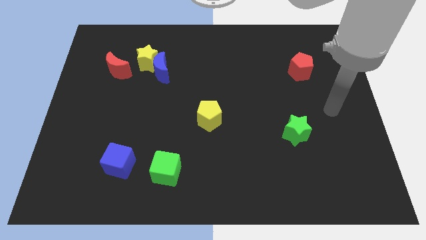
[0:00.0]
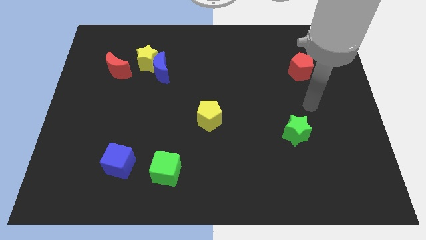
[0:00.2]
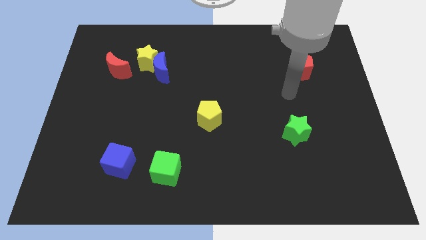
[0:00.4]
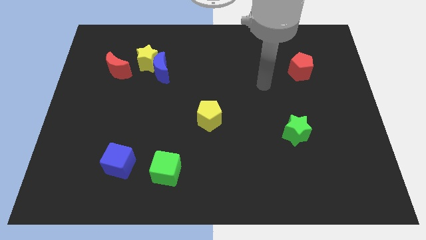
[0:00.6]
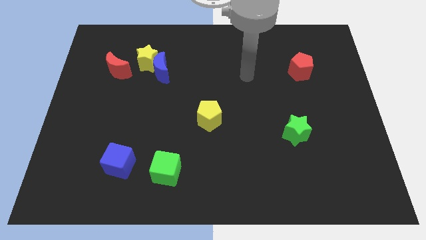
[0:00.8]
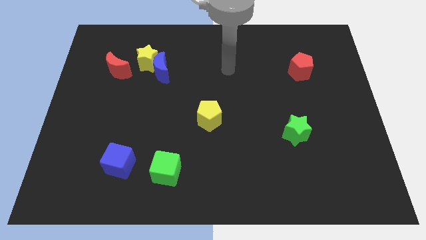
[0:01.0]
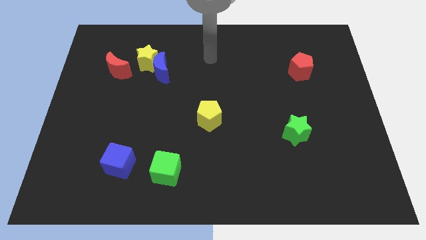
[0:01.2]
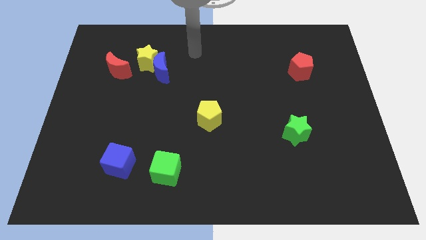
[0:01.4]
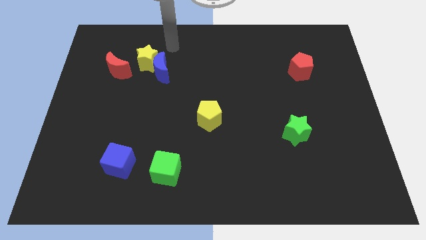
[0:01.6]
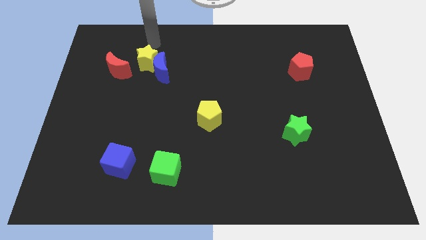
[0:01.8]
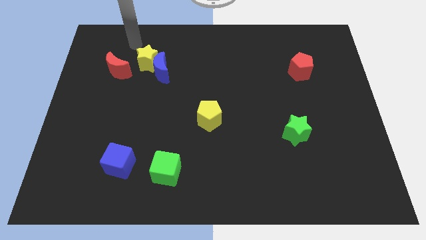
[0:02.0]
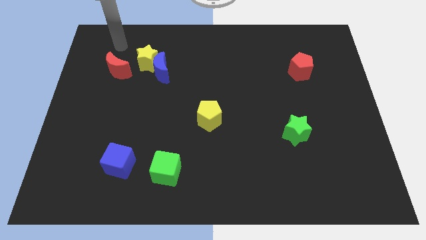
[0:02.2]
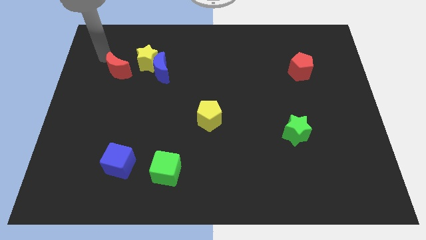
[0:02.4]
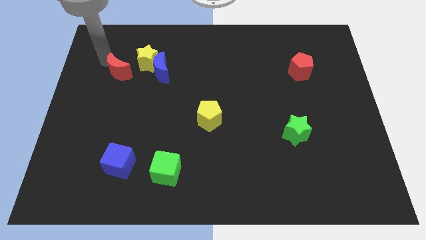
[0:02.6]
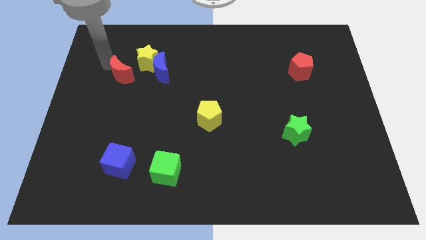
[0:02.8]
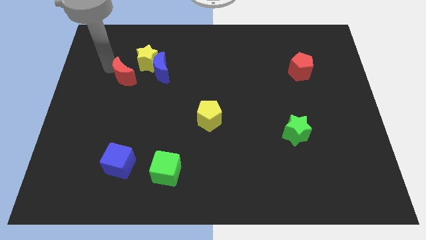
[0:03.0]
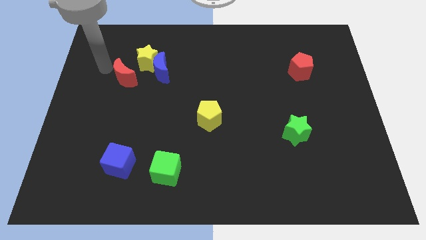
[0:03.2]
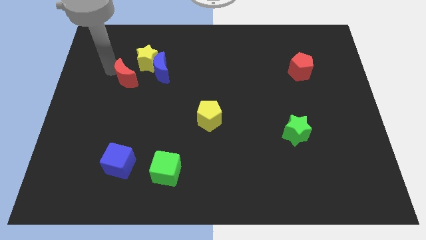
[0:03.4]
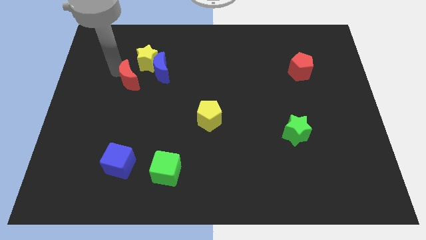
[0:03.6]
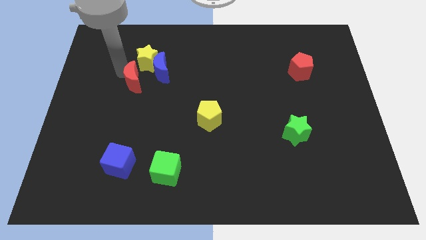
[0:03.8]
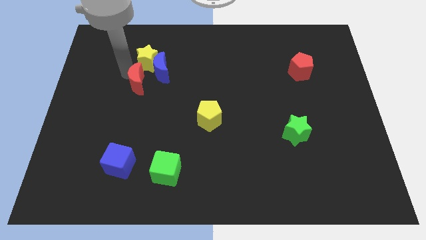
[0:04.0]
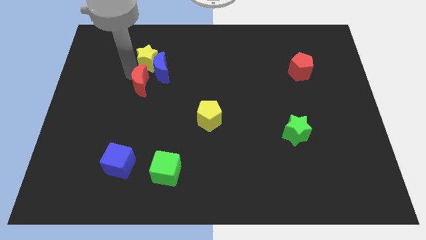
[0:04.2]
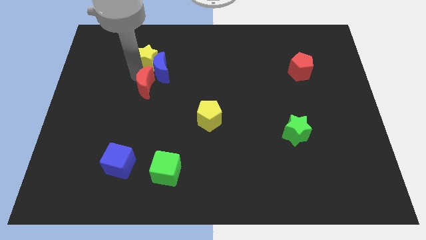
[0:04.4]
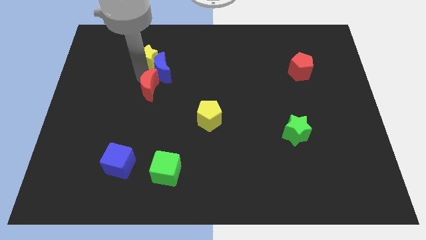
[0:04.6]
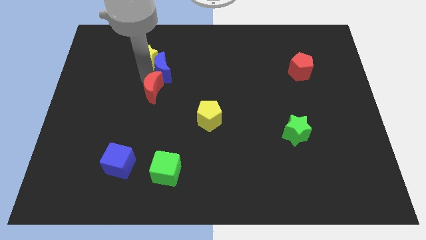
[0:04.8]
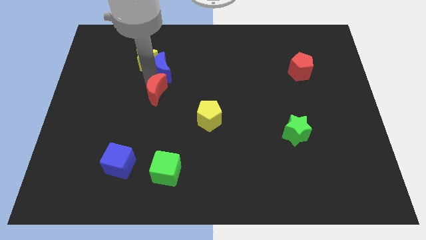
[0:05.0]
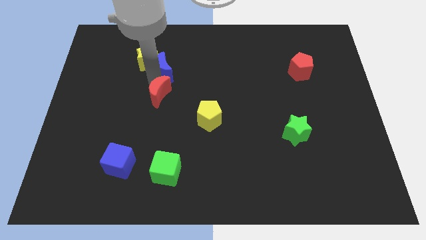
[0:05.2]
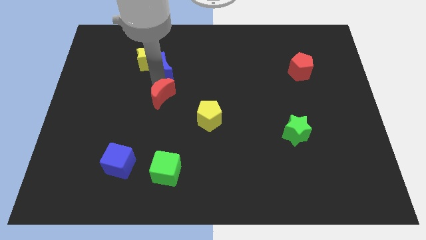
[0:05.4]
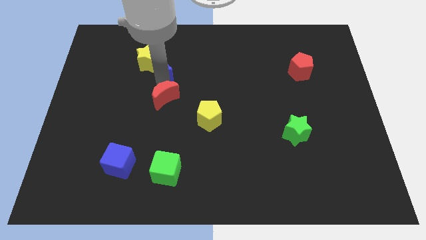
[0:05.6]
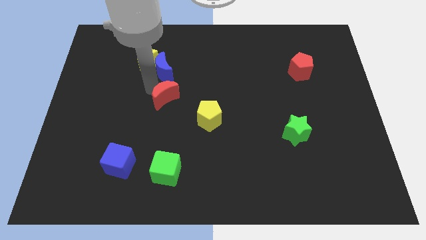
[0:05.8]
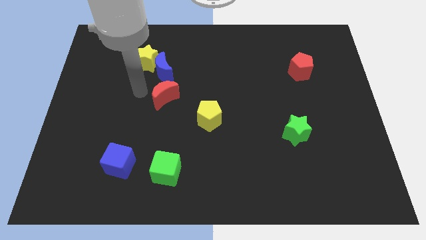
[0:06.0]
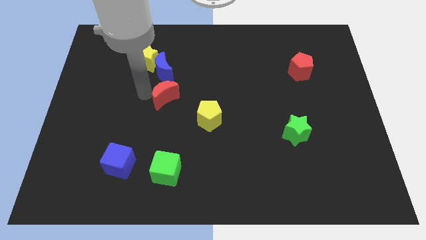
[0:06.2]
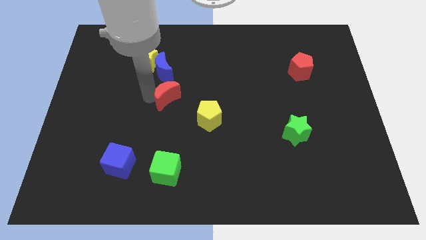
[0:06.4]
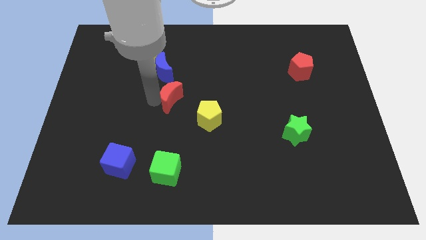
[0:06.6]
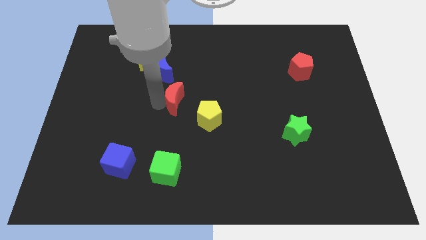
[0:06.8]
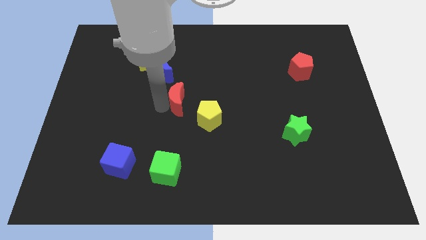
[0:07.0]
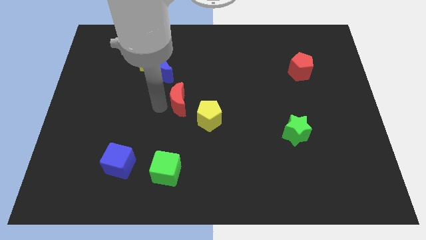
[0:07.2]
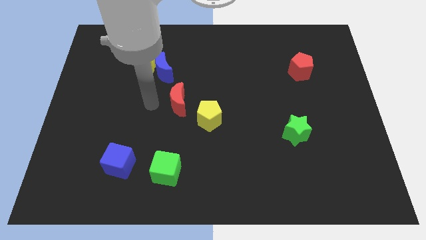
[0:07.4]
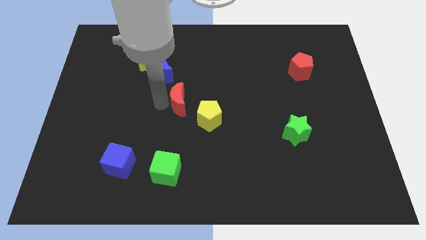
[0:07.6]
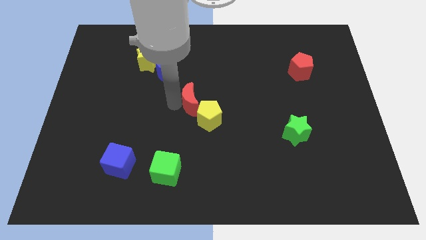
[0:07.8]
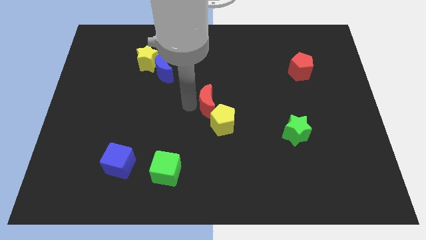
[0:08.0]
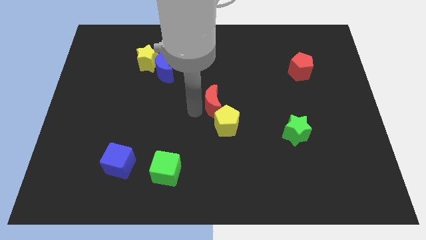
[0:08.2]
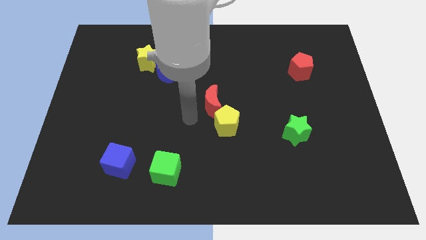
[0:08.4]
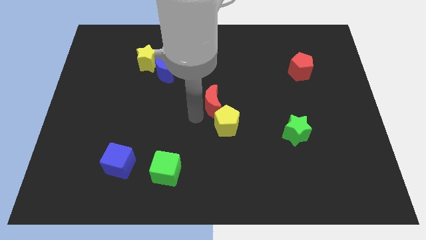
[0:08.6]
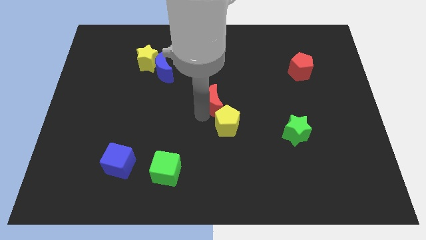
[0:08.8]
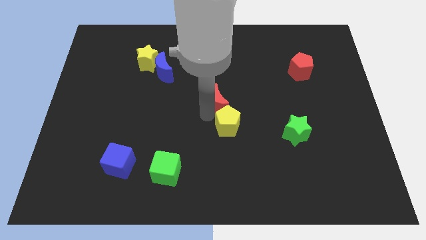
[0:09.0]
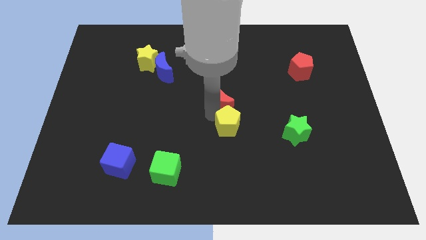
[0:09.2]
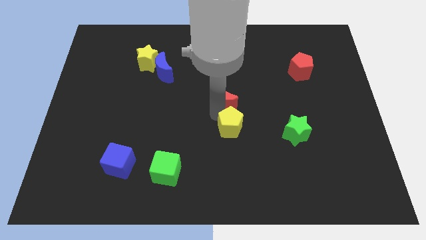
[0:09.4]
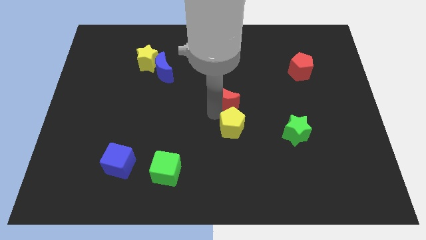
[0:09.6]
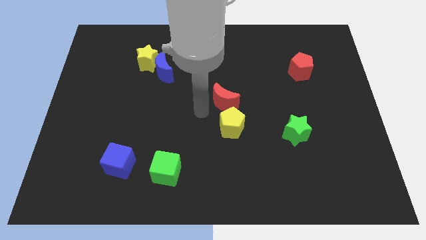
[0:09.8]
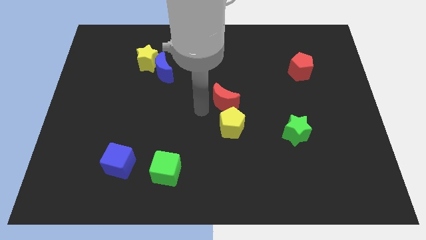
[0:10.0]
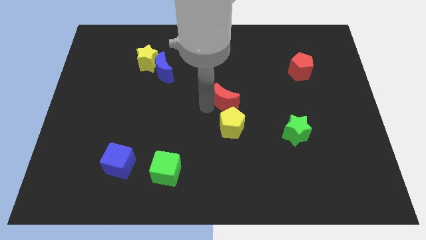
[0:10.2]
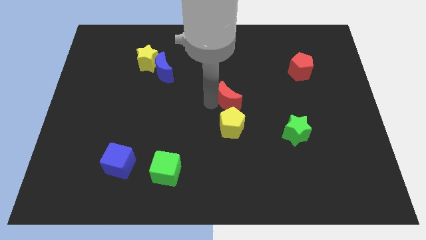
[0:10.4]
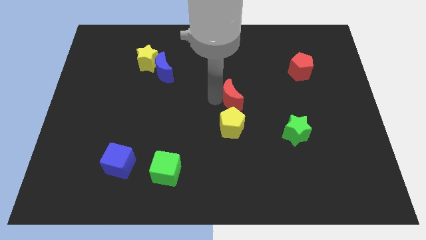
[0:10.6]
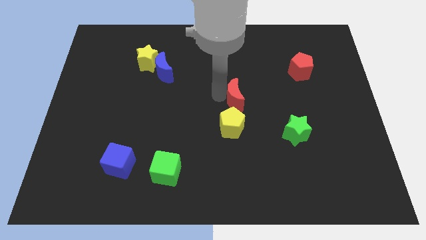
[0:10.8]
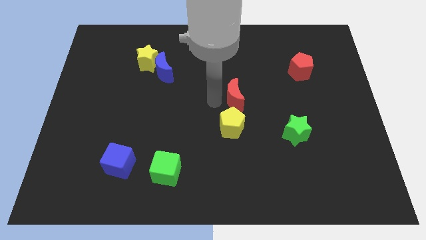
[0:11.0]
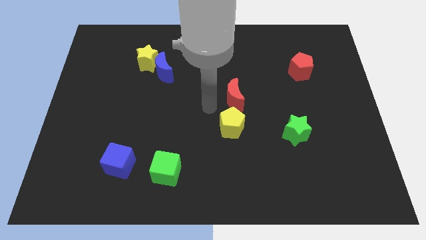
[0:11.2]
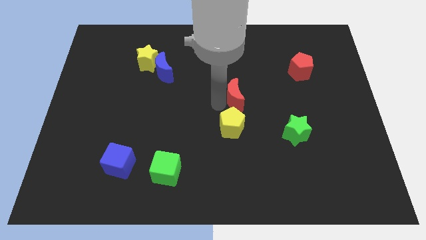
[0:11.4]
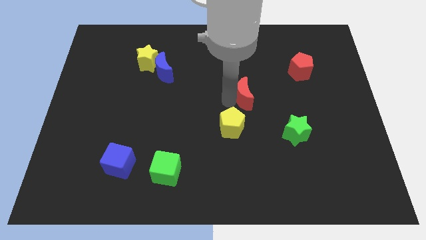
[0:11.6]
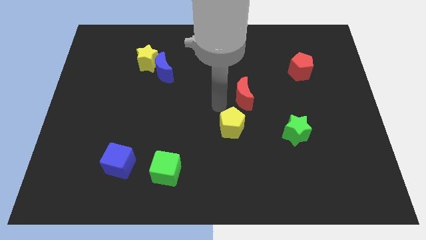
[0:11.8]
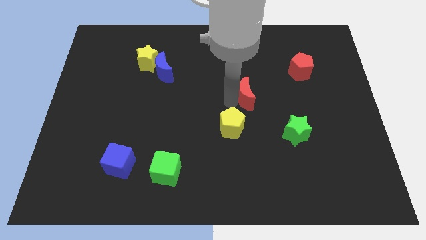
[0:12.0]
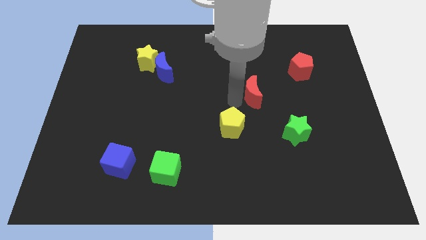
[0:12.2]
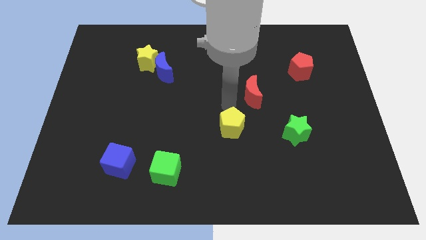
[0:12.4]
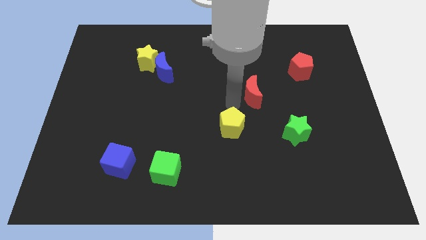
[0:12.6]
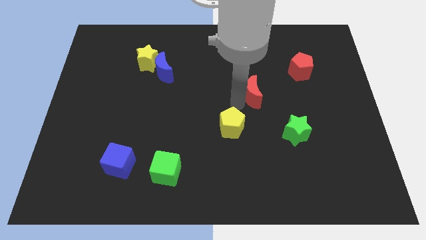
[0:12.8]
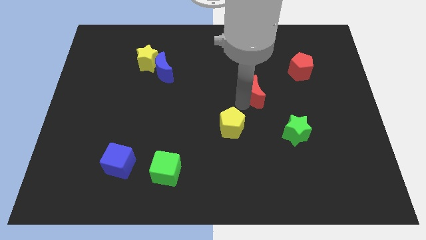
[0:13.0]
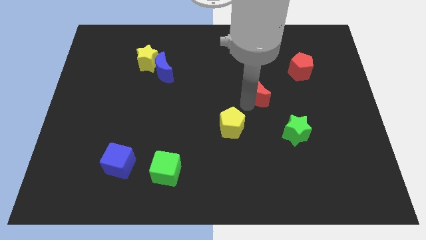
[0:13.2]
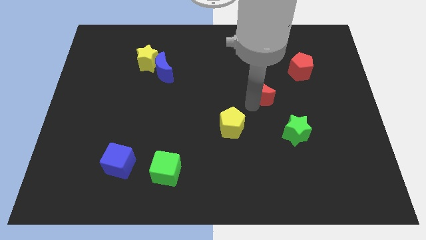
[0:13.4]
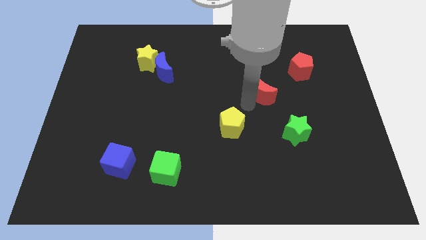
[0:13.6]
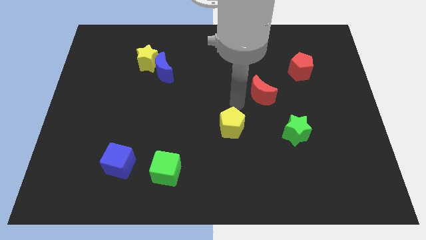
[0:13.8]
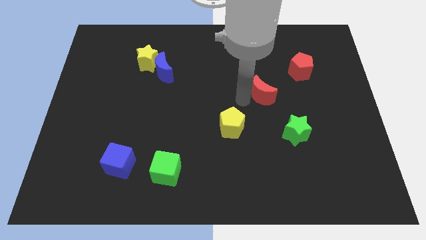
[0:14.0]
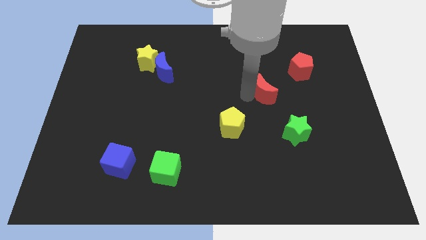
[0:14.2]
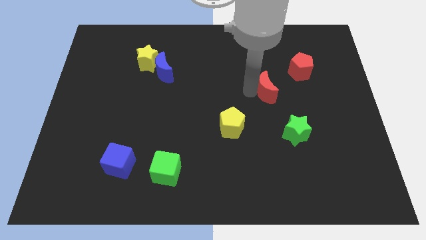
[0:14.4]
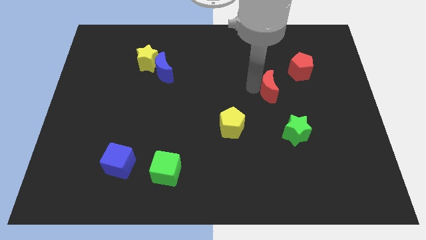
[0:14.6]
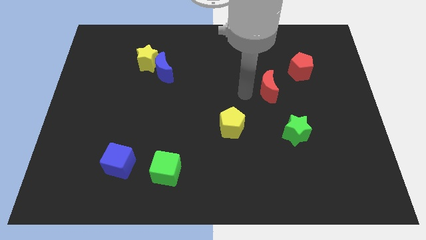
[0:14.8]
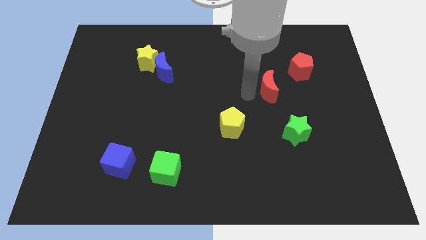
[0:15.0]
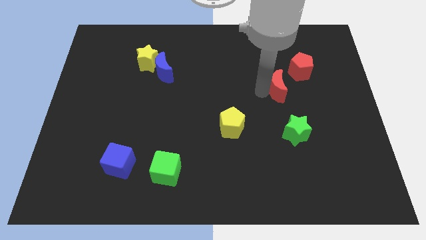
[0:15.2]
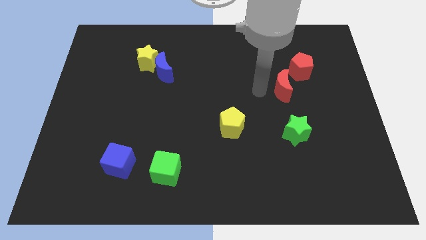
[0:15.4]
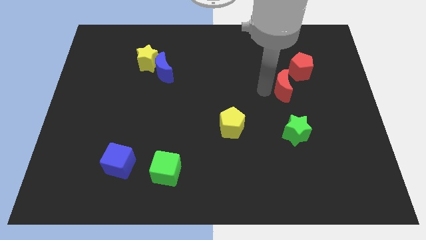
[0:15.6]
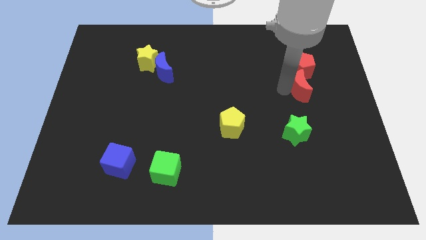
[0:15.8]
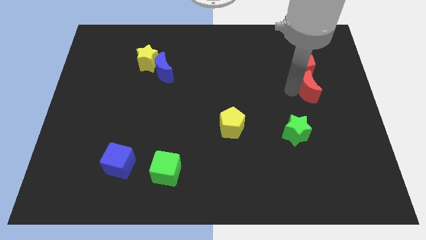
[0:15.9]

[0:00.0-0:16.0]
push the red moon to the bottom right side of the red pentagon
